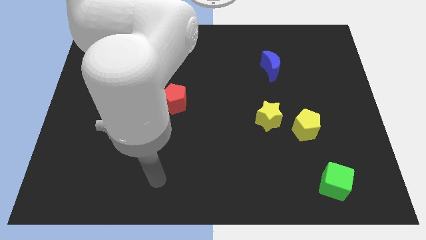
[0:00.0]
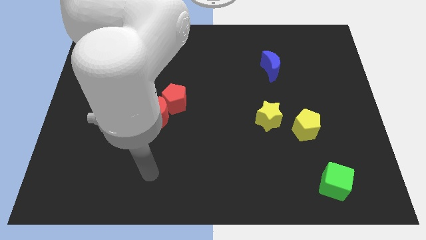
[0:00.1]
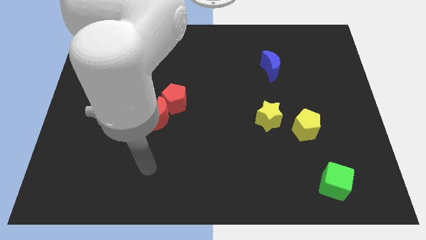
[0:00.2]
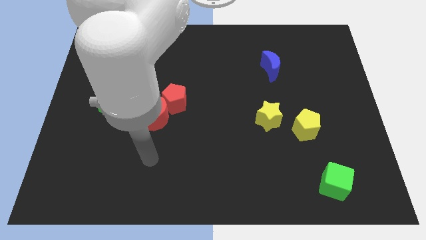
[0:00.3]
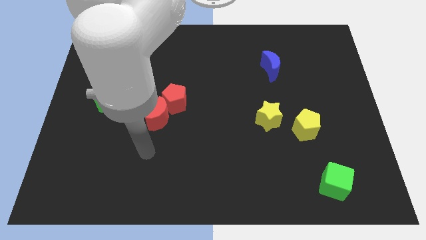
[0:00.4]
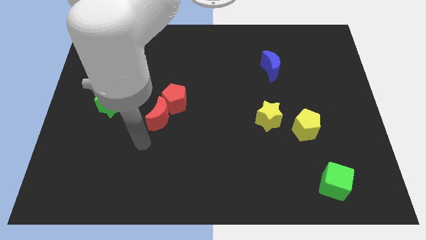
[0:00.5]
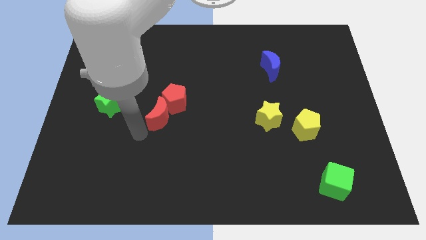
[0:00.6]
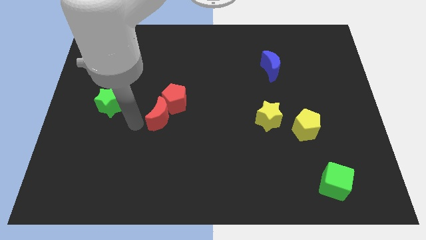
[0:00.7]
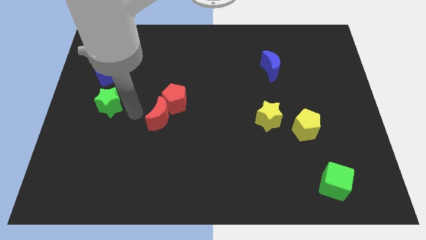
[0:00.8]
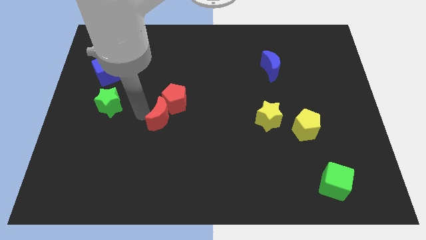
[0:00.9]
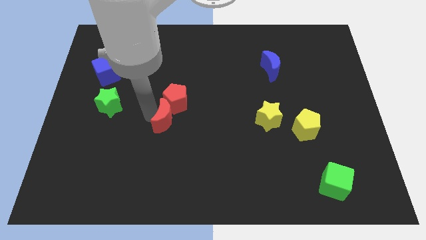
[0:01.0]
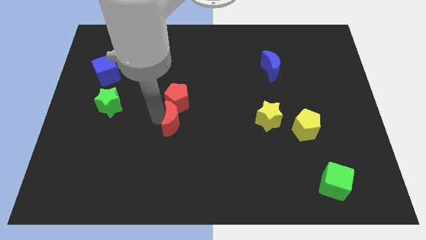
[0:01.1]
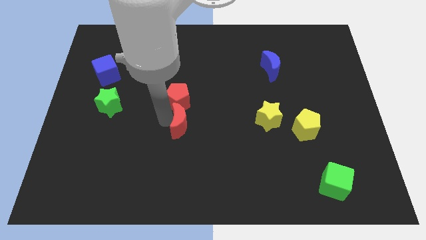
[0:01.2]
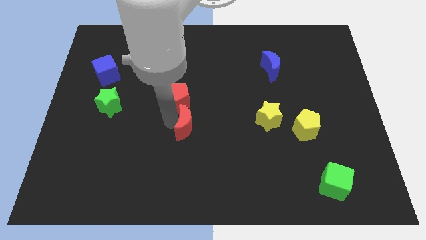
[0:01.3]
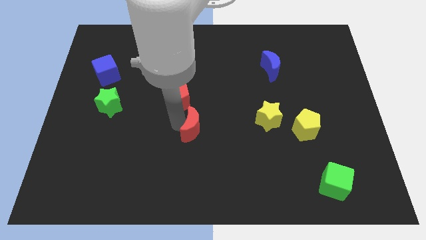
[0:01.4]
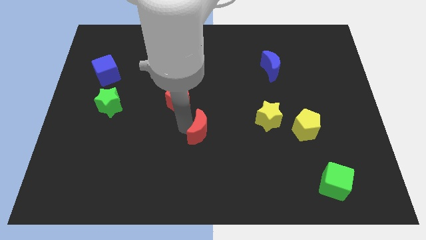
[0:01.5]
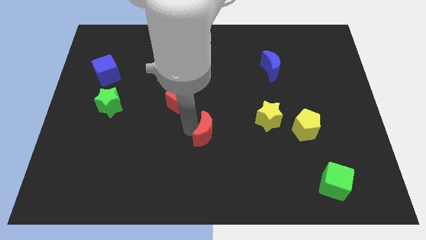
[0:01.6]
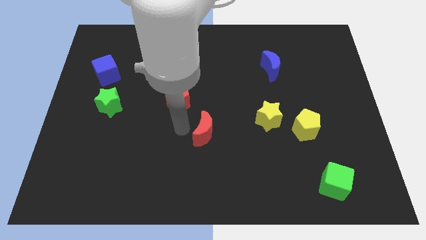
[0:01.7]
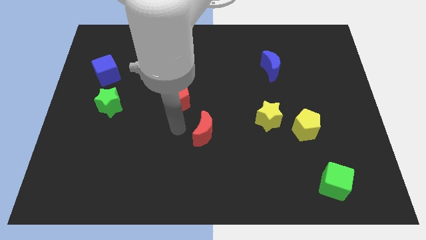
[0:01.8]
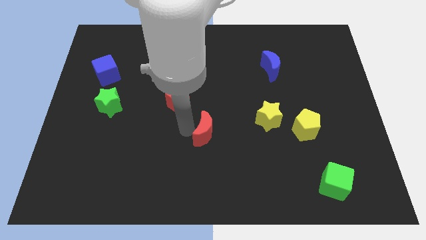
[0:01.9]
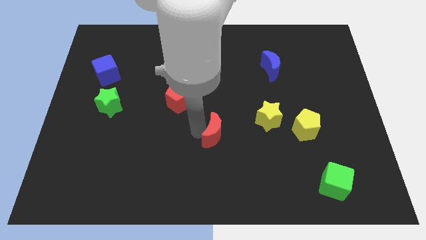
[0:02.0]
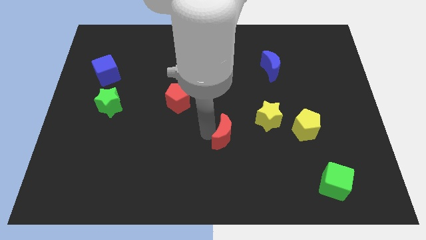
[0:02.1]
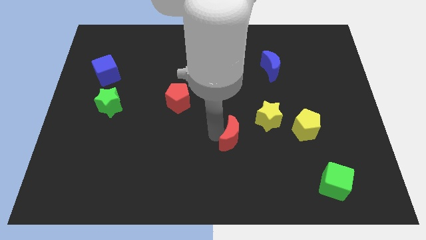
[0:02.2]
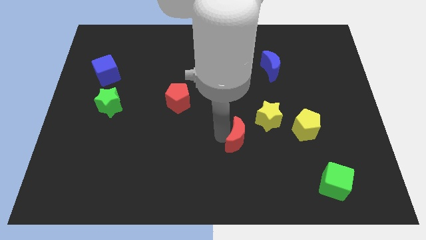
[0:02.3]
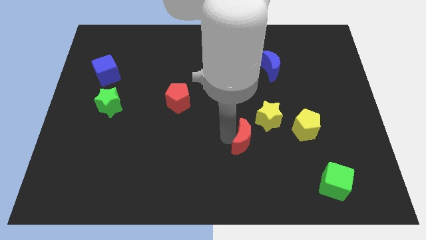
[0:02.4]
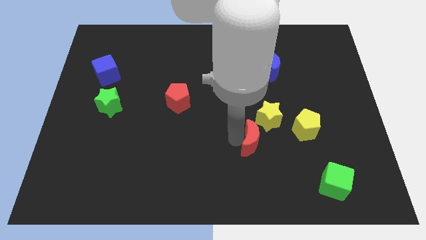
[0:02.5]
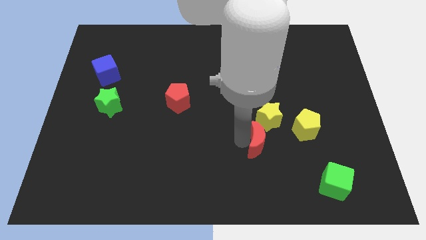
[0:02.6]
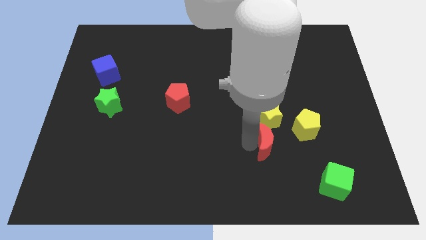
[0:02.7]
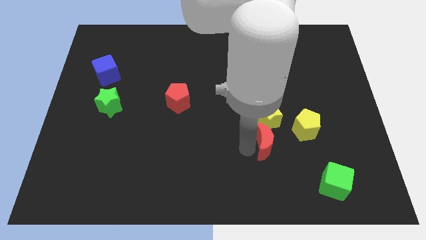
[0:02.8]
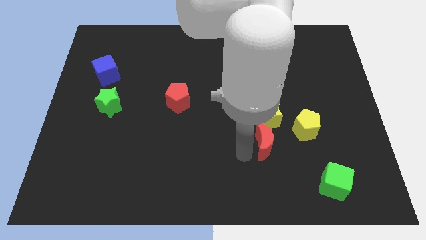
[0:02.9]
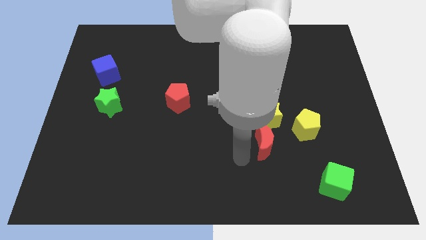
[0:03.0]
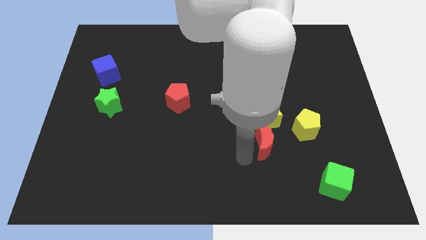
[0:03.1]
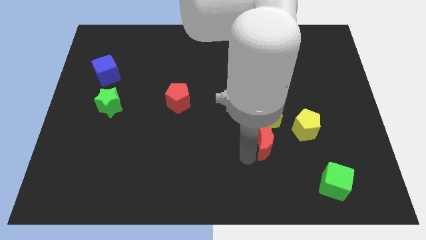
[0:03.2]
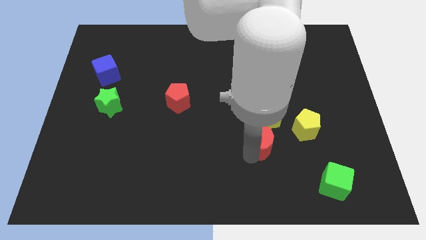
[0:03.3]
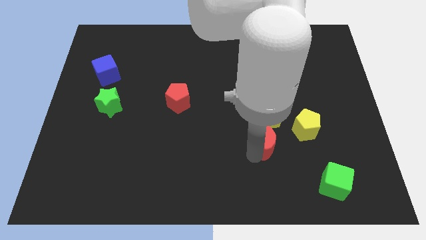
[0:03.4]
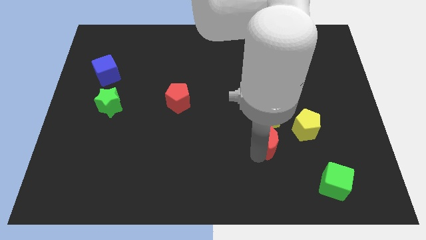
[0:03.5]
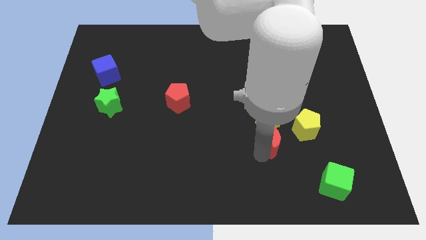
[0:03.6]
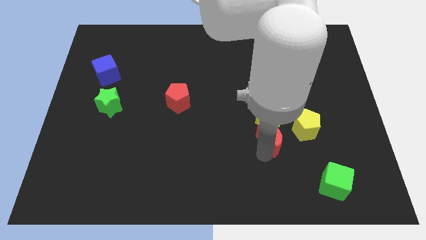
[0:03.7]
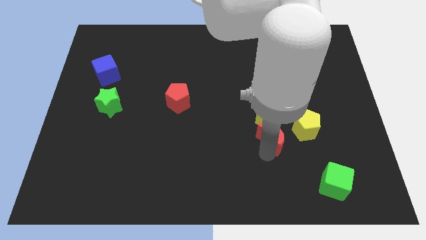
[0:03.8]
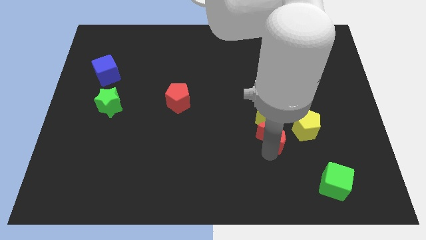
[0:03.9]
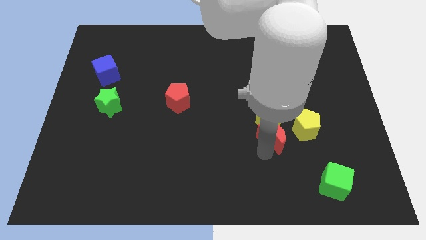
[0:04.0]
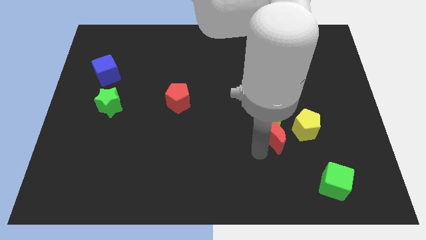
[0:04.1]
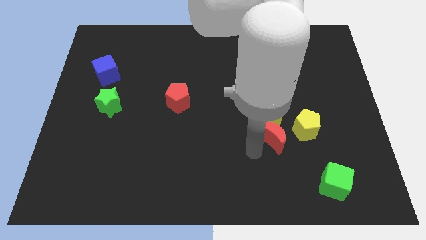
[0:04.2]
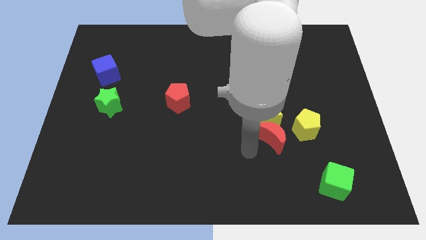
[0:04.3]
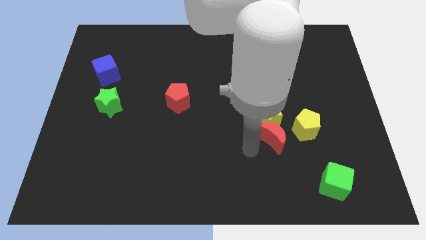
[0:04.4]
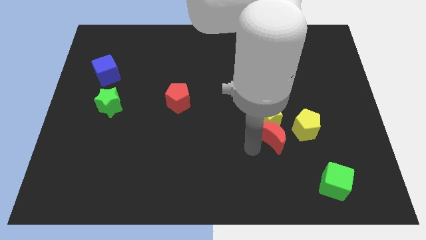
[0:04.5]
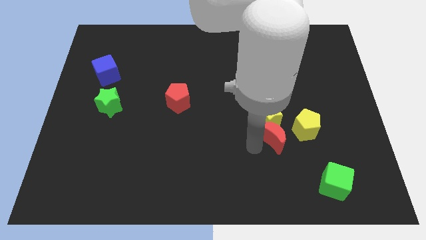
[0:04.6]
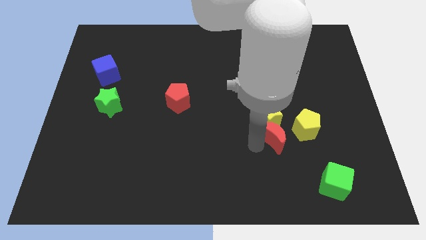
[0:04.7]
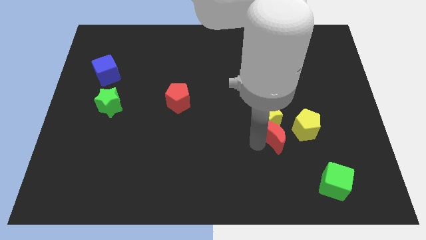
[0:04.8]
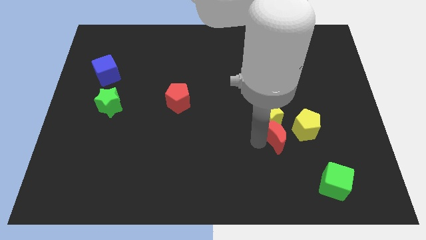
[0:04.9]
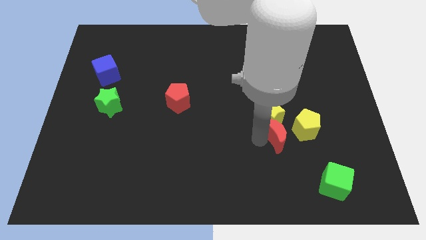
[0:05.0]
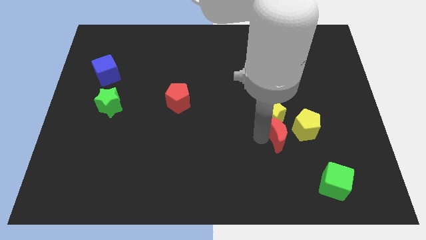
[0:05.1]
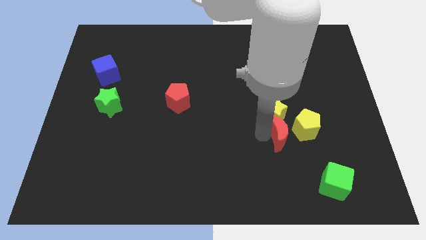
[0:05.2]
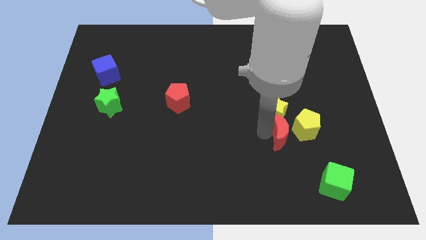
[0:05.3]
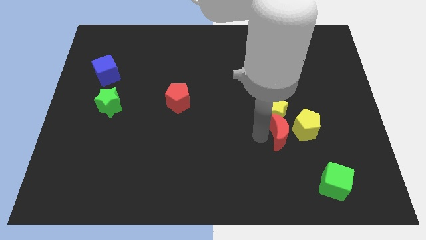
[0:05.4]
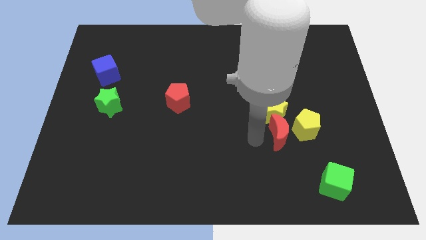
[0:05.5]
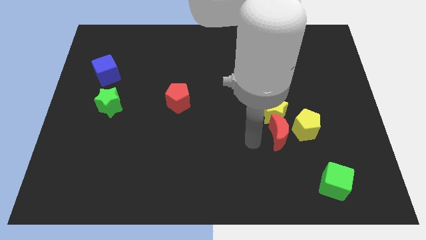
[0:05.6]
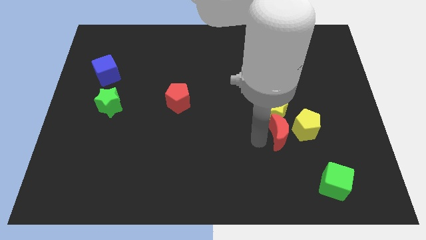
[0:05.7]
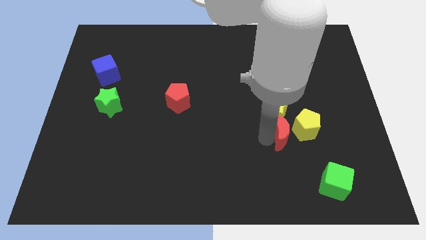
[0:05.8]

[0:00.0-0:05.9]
put the red moon close to the yellow pentagon

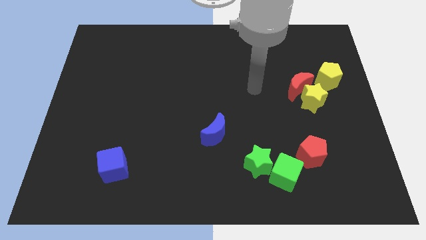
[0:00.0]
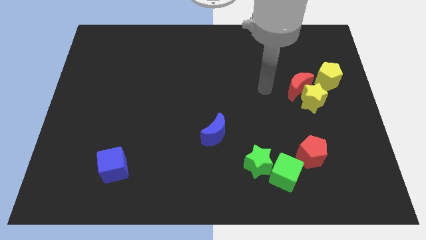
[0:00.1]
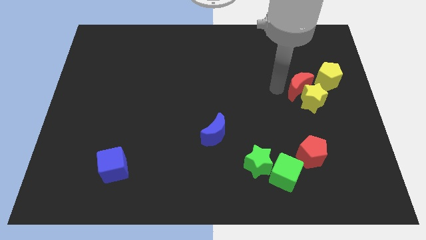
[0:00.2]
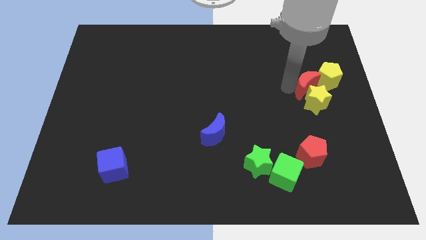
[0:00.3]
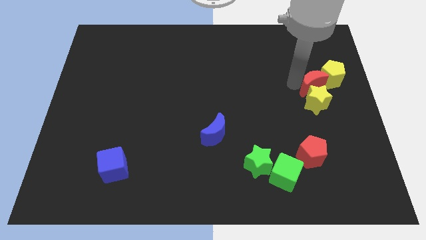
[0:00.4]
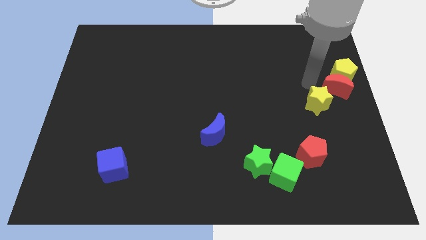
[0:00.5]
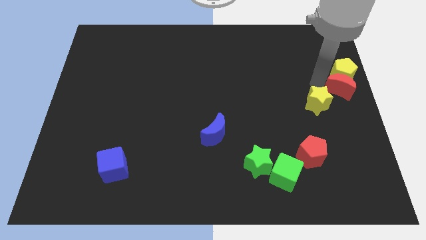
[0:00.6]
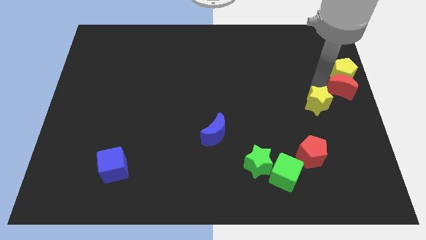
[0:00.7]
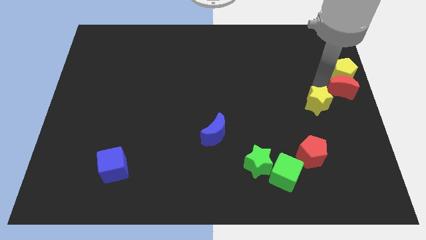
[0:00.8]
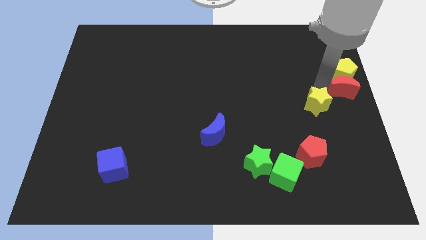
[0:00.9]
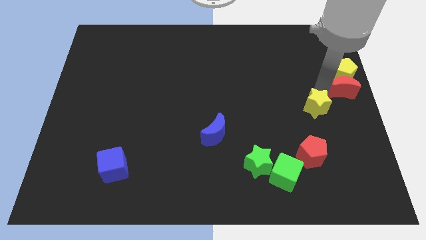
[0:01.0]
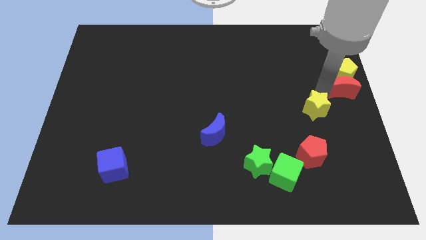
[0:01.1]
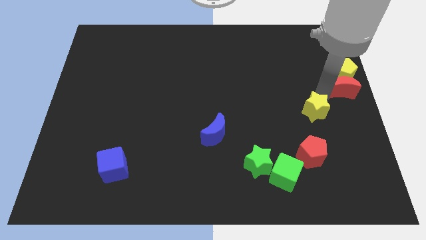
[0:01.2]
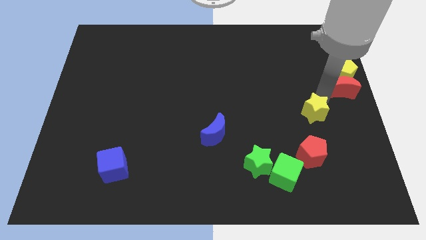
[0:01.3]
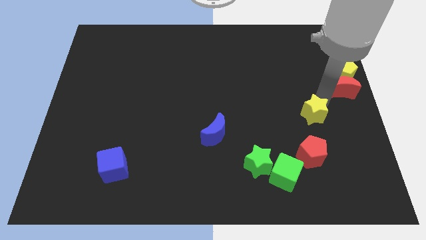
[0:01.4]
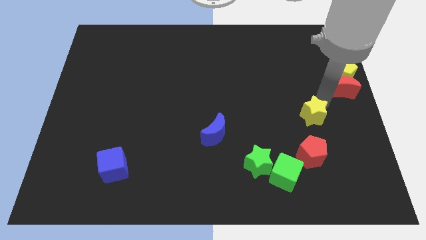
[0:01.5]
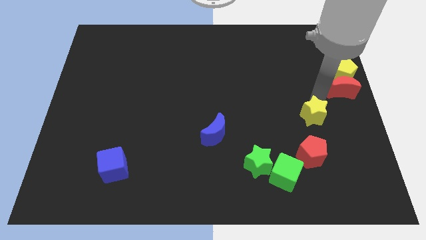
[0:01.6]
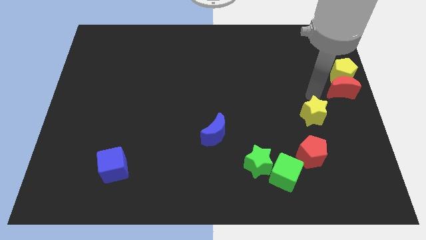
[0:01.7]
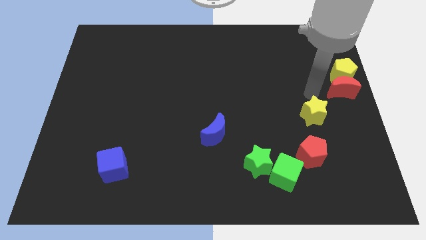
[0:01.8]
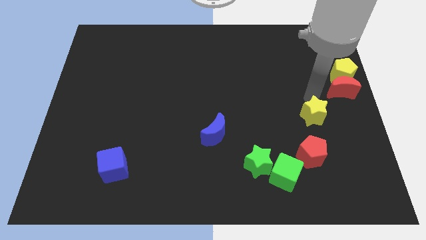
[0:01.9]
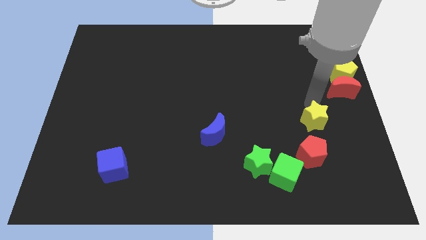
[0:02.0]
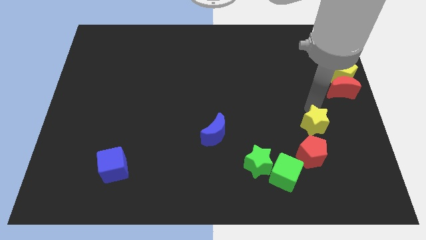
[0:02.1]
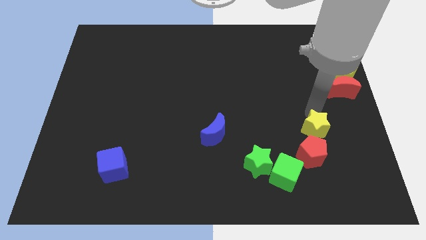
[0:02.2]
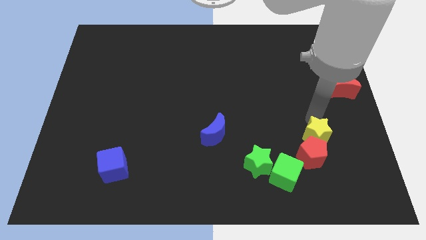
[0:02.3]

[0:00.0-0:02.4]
move the yellow star close to the red pentagon
